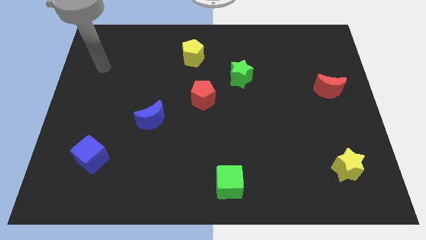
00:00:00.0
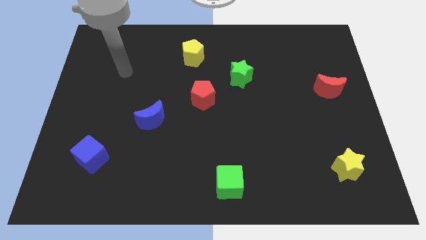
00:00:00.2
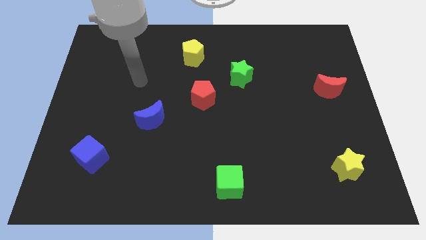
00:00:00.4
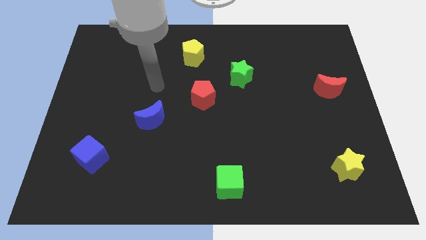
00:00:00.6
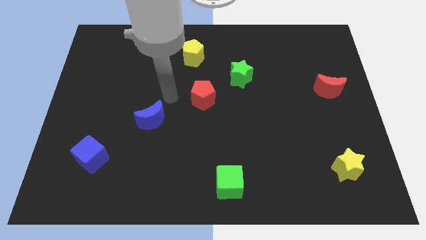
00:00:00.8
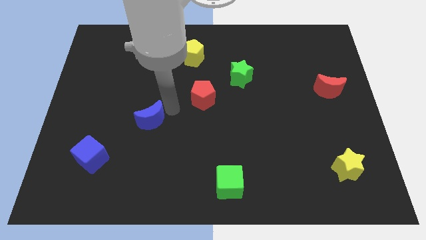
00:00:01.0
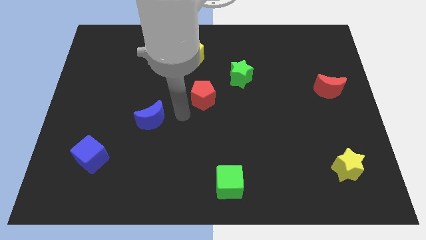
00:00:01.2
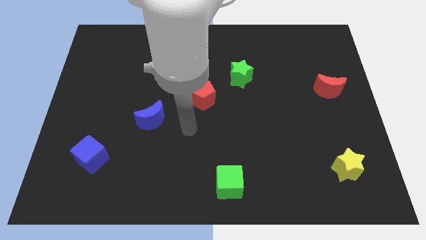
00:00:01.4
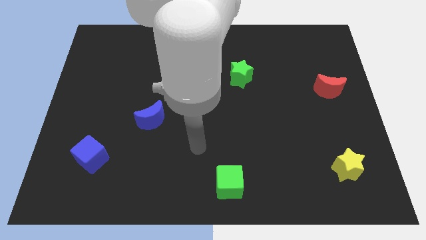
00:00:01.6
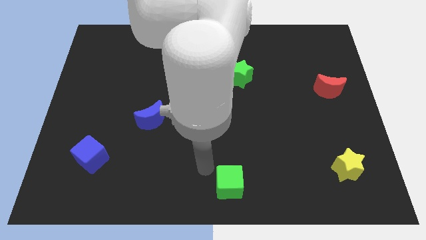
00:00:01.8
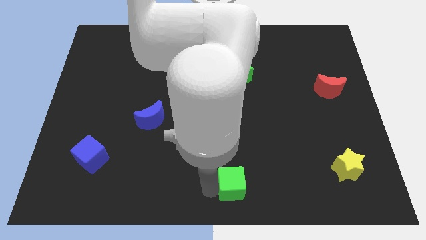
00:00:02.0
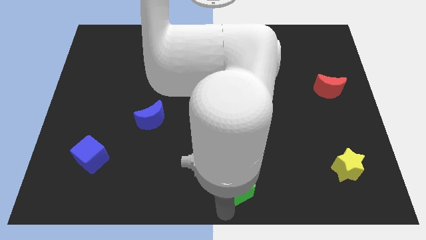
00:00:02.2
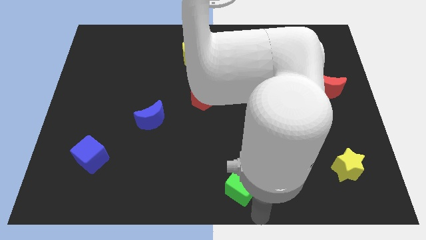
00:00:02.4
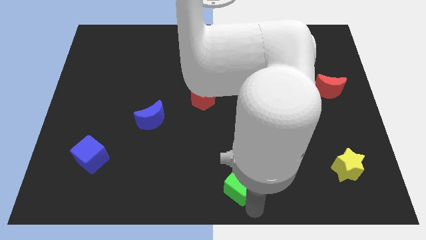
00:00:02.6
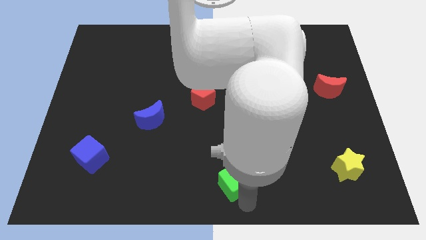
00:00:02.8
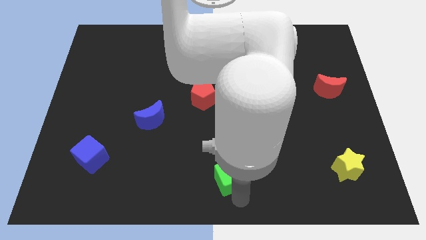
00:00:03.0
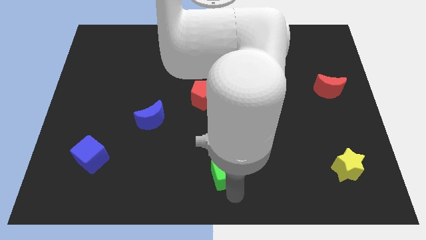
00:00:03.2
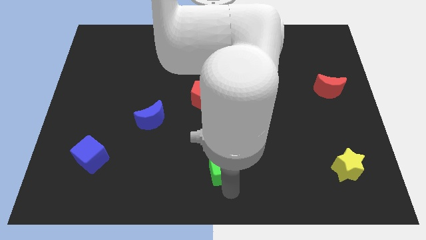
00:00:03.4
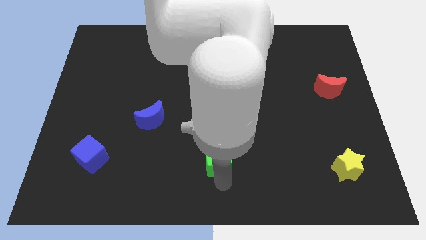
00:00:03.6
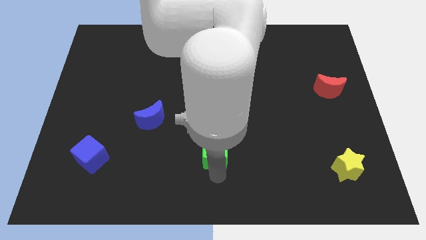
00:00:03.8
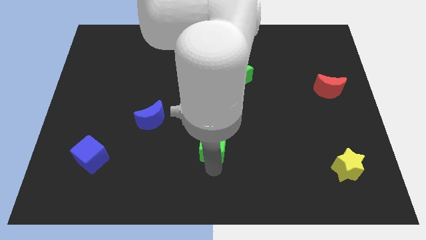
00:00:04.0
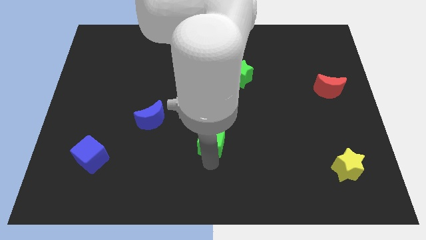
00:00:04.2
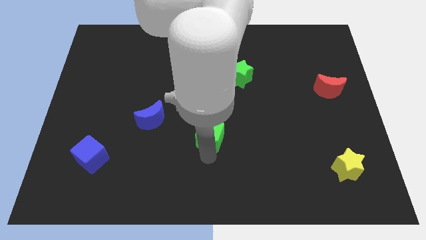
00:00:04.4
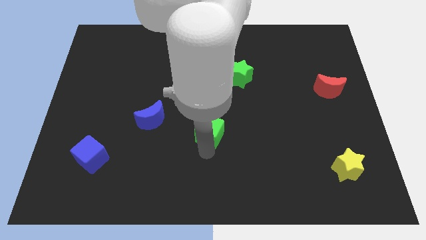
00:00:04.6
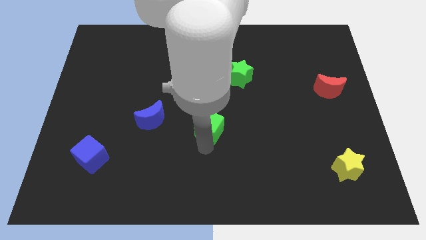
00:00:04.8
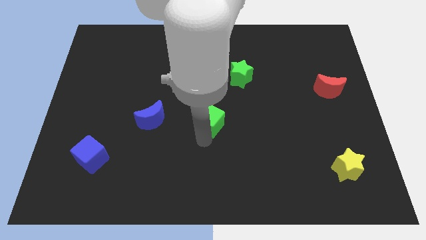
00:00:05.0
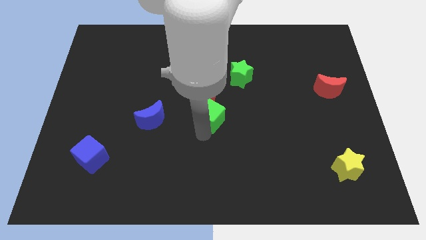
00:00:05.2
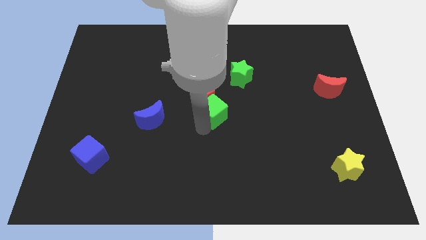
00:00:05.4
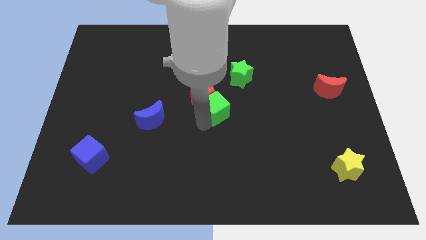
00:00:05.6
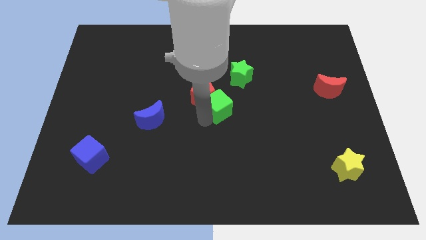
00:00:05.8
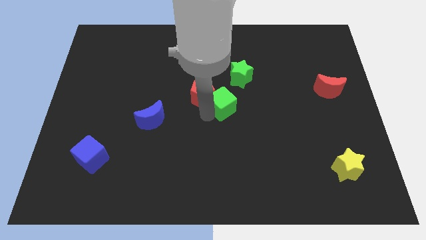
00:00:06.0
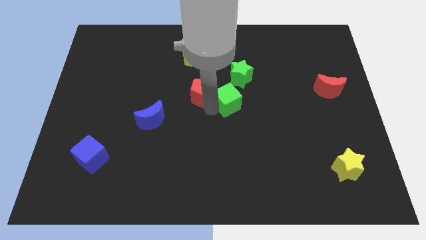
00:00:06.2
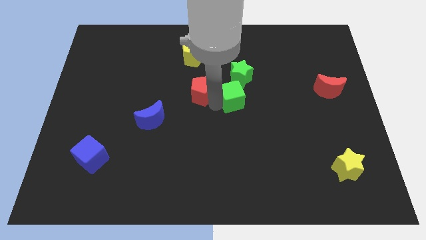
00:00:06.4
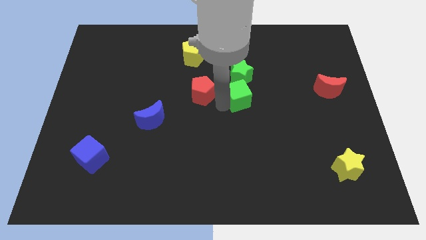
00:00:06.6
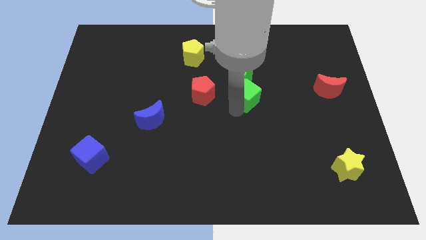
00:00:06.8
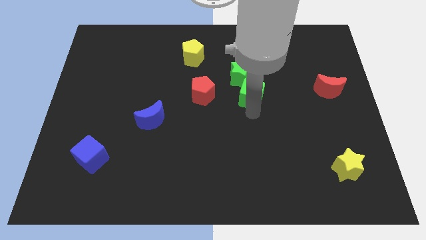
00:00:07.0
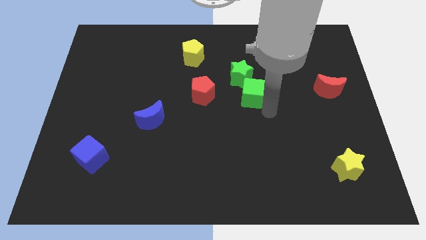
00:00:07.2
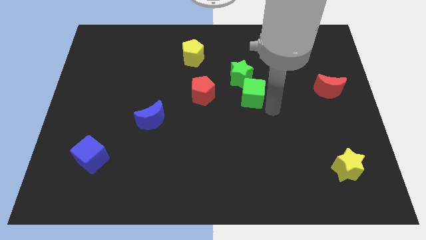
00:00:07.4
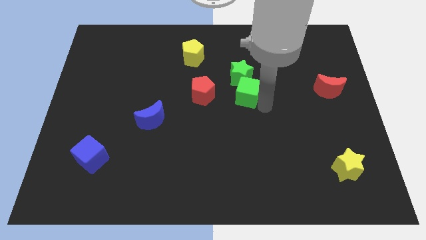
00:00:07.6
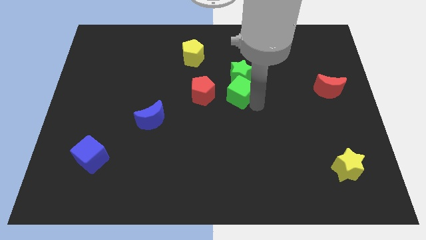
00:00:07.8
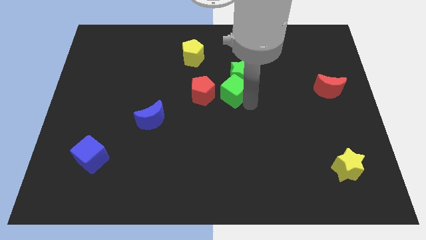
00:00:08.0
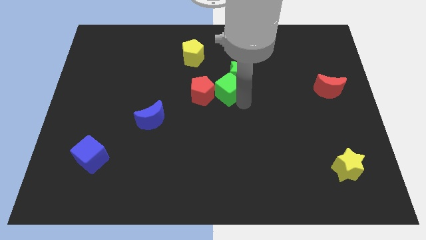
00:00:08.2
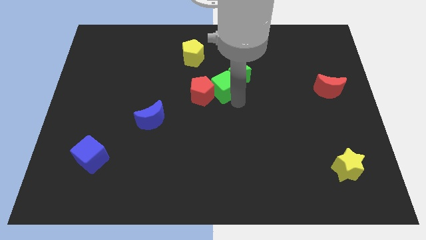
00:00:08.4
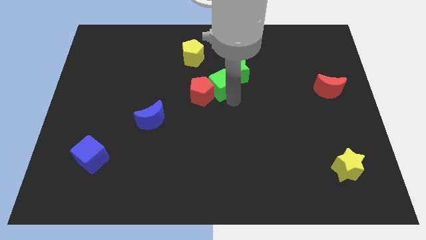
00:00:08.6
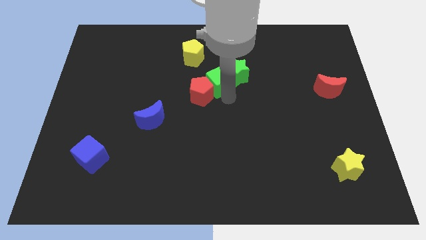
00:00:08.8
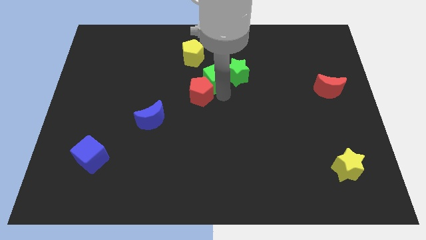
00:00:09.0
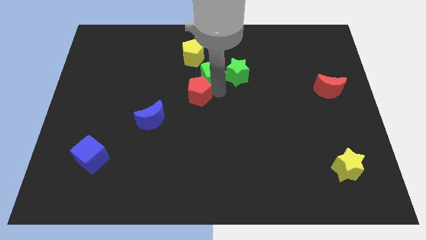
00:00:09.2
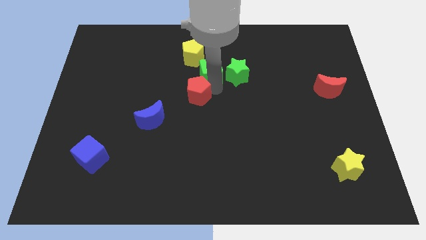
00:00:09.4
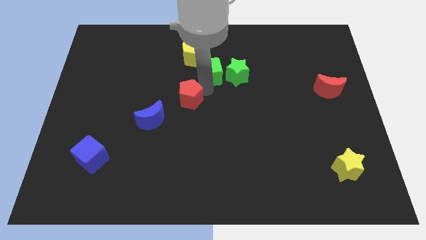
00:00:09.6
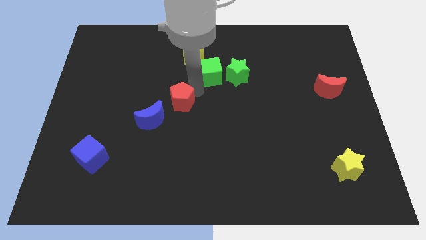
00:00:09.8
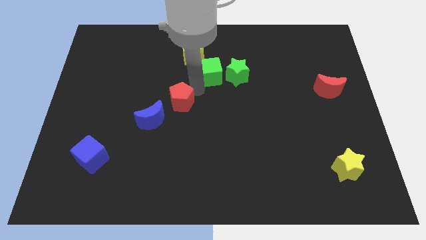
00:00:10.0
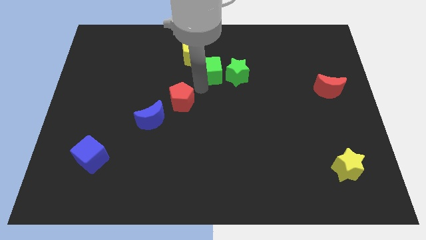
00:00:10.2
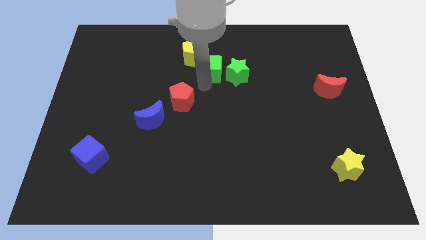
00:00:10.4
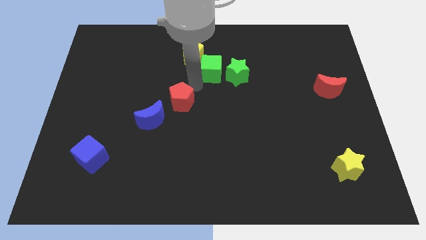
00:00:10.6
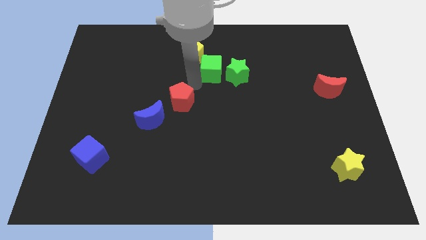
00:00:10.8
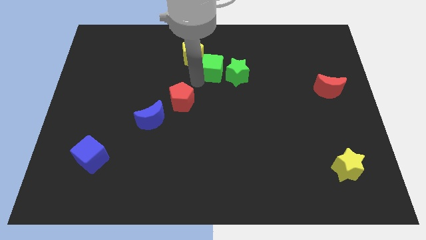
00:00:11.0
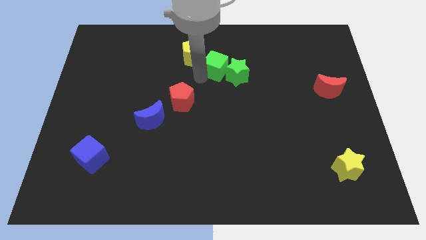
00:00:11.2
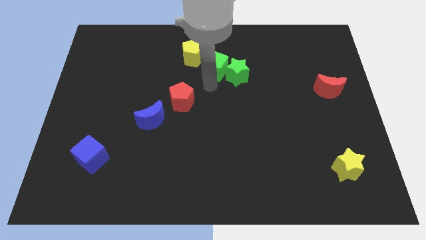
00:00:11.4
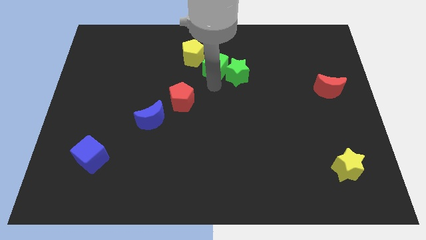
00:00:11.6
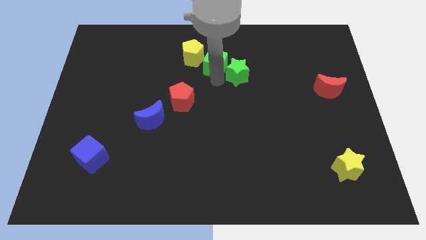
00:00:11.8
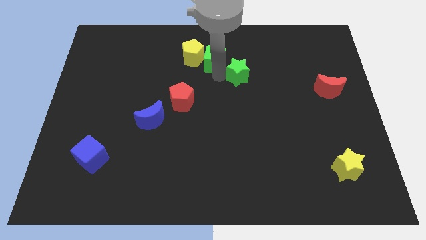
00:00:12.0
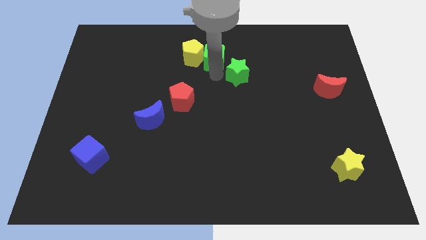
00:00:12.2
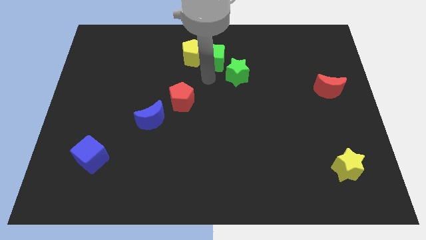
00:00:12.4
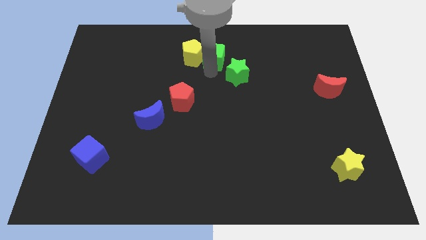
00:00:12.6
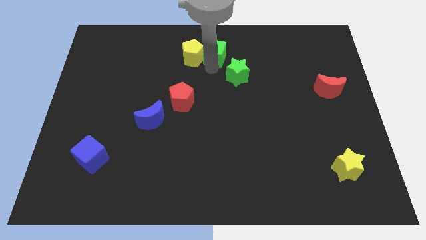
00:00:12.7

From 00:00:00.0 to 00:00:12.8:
move the green cube to the top
